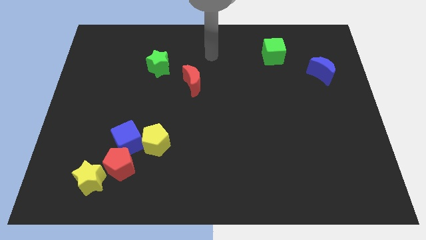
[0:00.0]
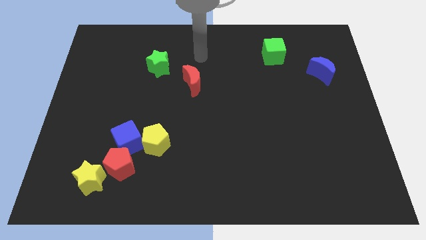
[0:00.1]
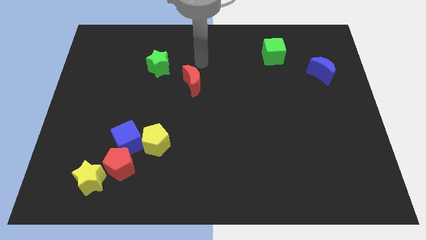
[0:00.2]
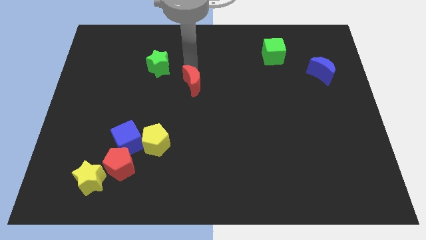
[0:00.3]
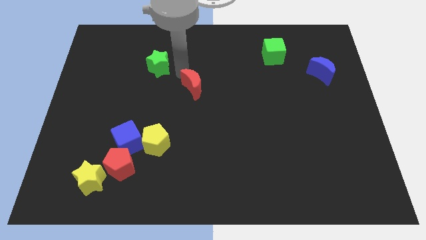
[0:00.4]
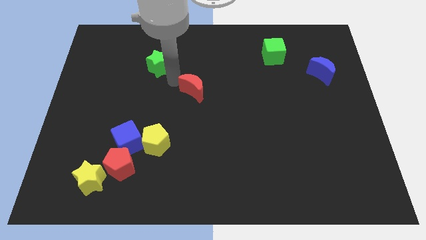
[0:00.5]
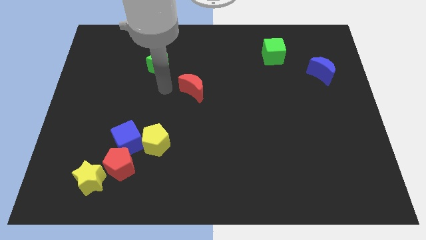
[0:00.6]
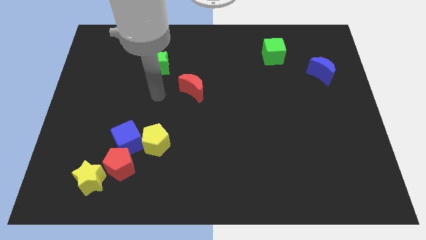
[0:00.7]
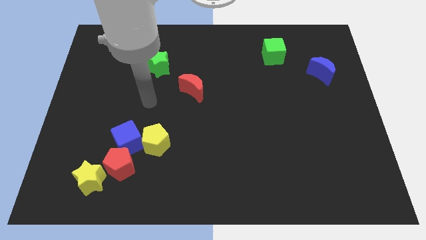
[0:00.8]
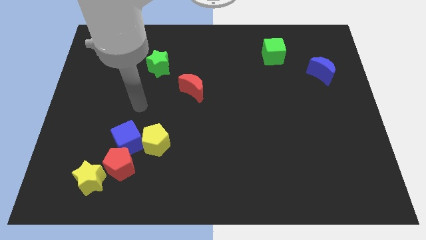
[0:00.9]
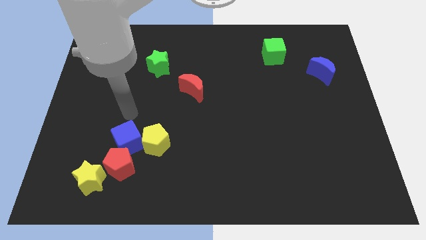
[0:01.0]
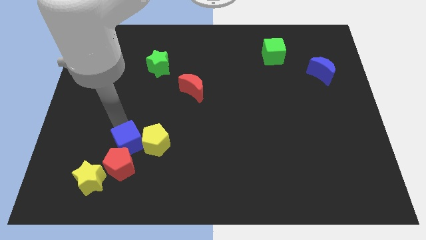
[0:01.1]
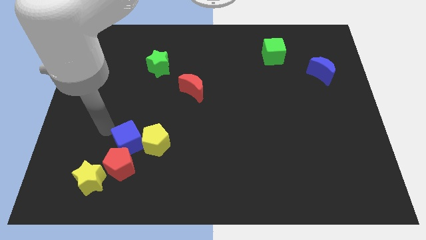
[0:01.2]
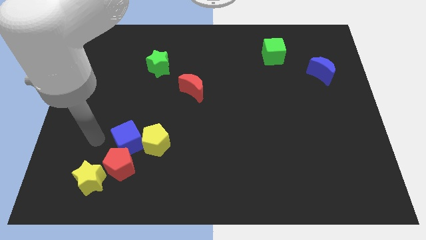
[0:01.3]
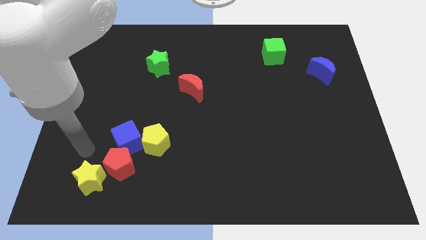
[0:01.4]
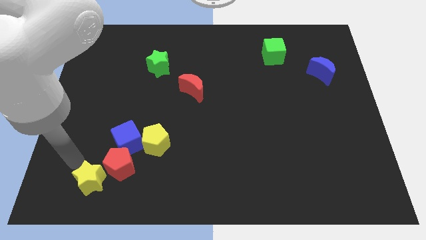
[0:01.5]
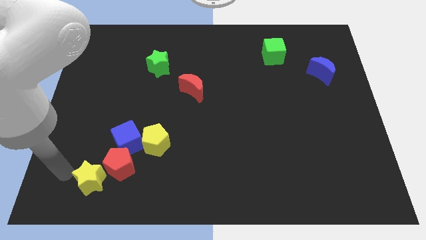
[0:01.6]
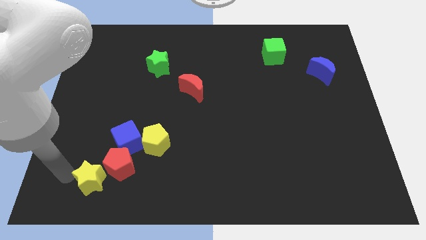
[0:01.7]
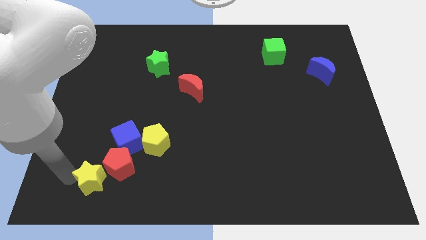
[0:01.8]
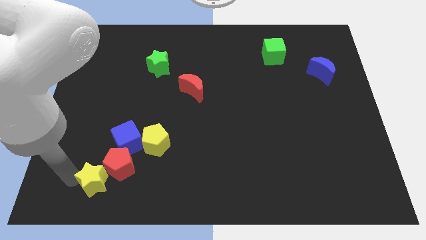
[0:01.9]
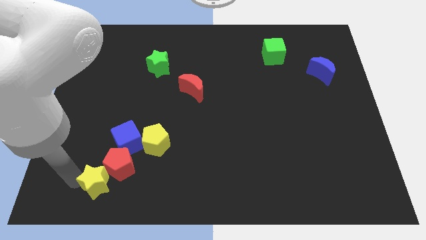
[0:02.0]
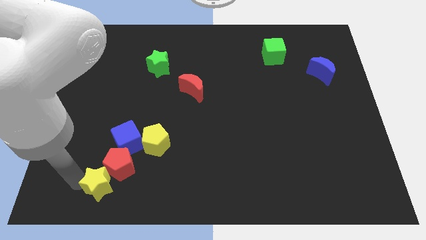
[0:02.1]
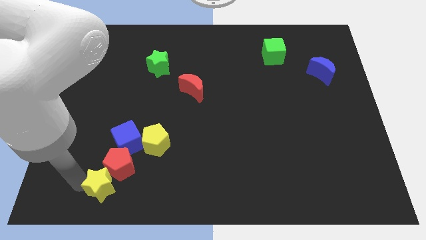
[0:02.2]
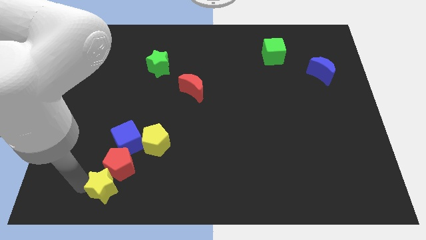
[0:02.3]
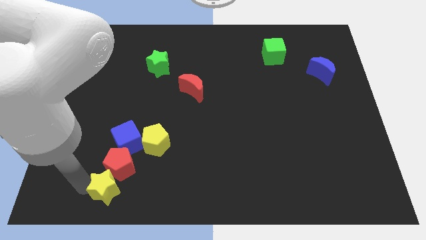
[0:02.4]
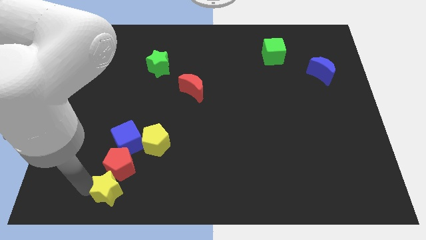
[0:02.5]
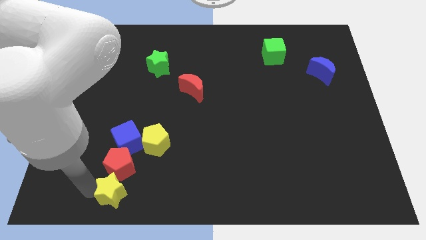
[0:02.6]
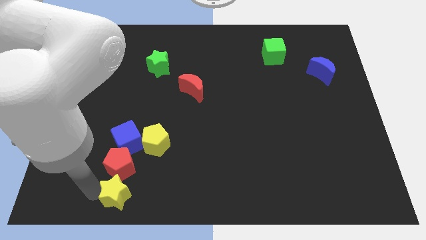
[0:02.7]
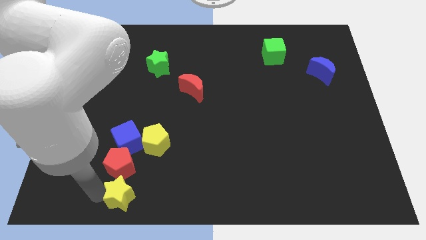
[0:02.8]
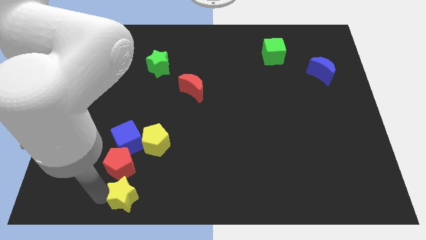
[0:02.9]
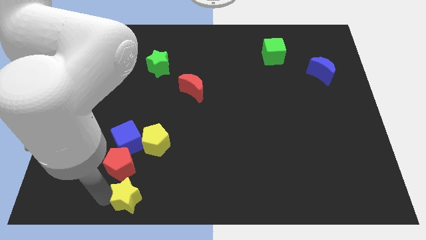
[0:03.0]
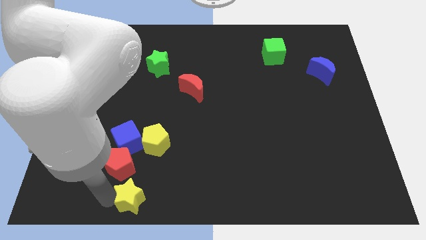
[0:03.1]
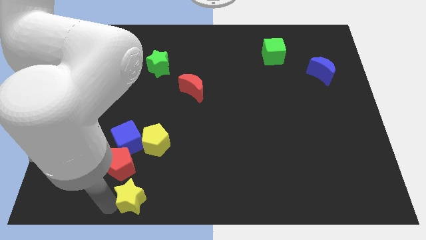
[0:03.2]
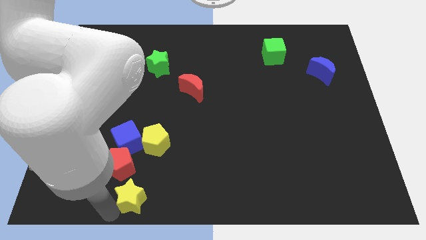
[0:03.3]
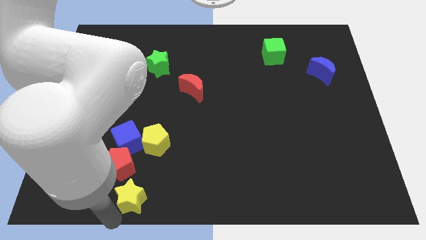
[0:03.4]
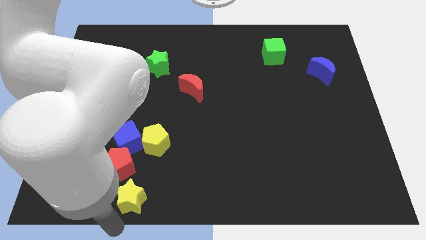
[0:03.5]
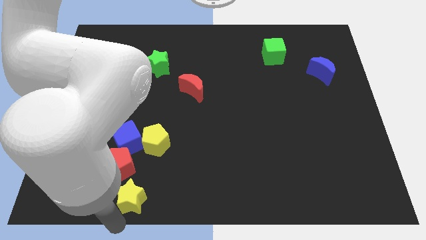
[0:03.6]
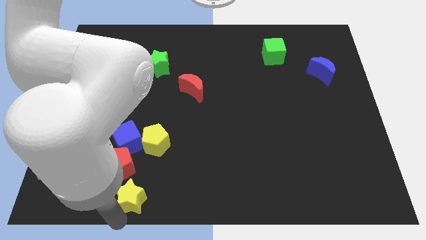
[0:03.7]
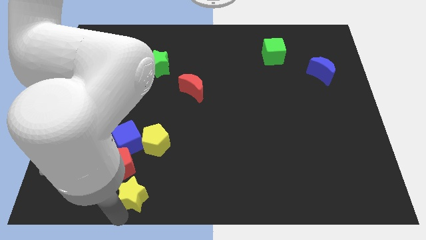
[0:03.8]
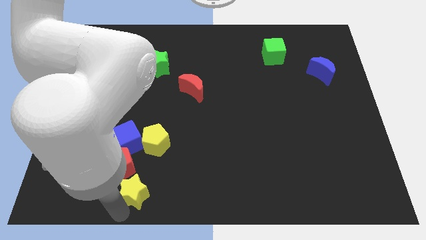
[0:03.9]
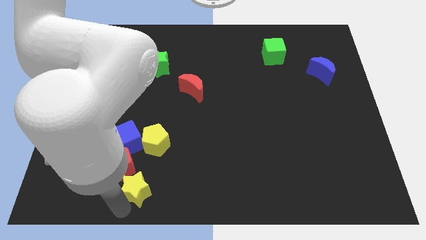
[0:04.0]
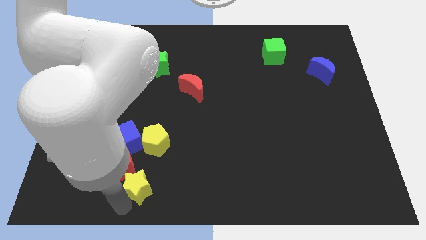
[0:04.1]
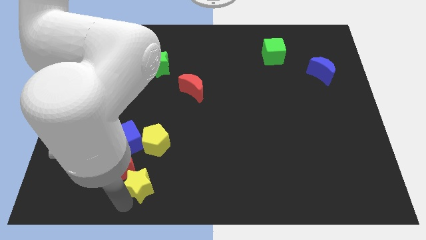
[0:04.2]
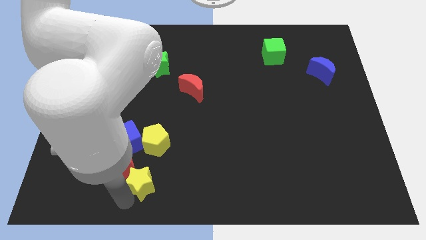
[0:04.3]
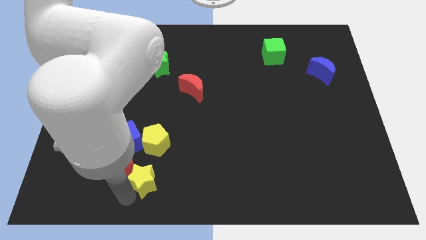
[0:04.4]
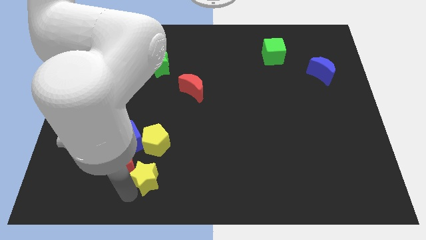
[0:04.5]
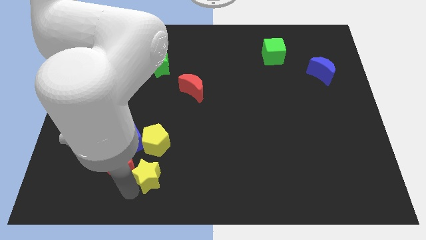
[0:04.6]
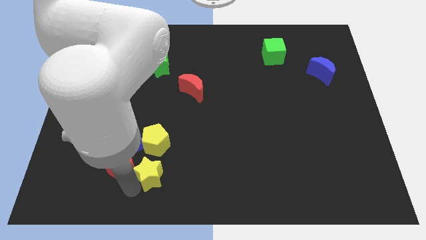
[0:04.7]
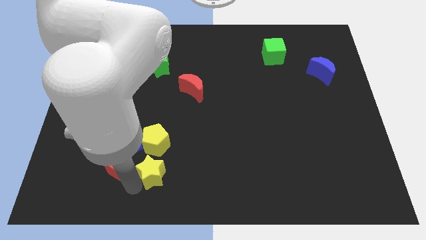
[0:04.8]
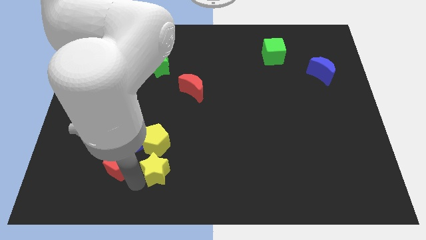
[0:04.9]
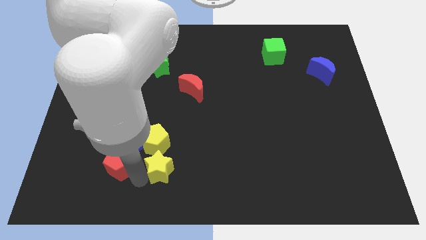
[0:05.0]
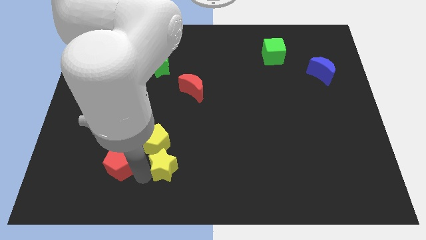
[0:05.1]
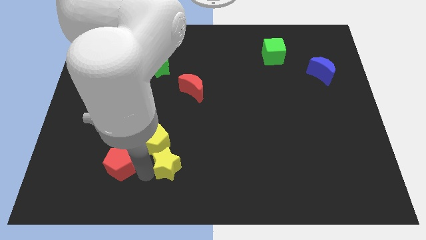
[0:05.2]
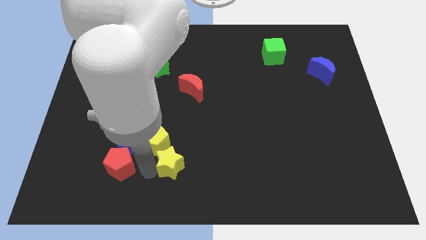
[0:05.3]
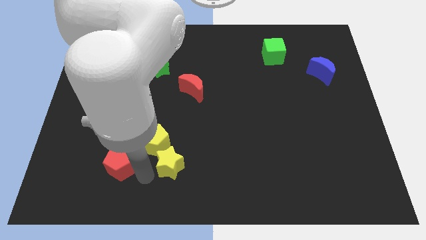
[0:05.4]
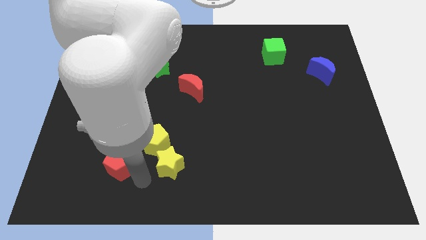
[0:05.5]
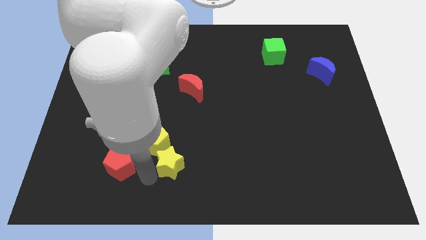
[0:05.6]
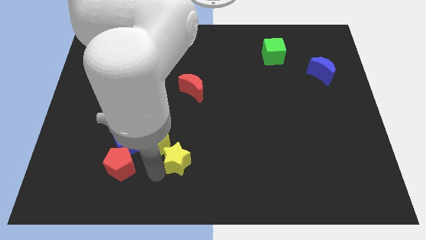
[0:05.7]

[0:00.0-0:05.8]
push the yellow star just right of the yellow pentagon

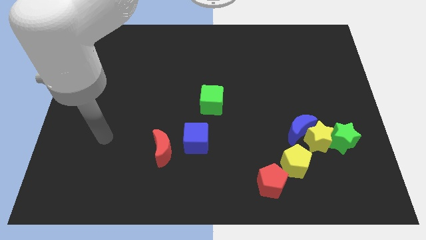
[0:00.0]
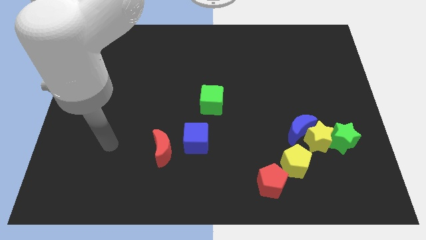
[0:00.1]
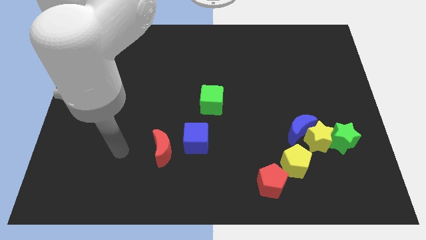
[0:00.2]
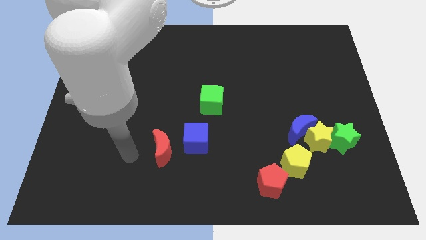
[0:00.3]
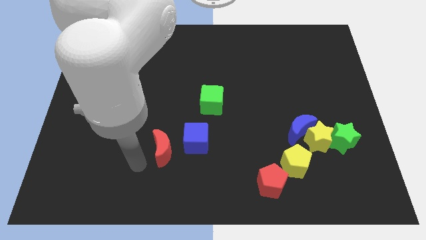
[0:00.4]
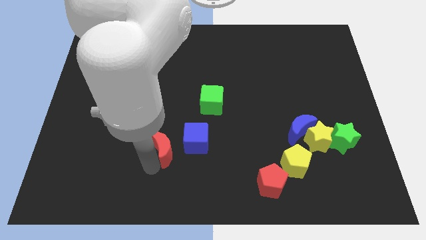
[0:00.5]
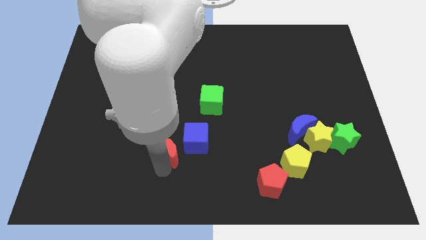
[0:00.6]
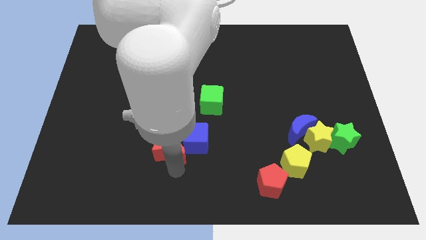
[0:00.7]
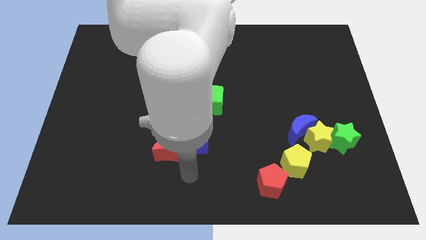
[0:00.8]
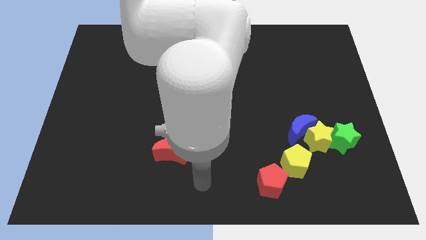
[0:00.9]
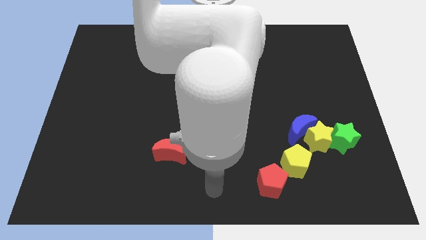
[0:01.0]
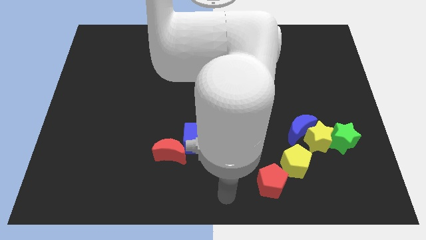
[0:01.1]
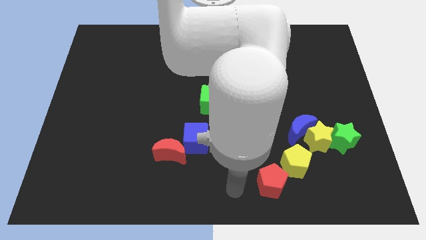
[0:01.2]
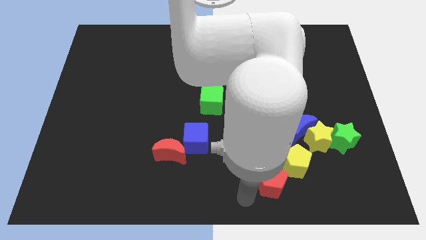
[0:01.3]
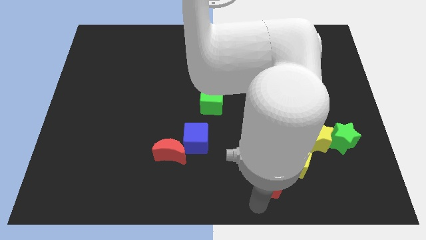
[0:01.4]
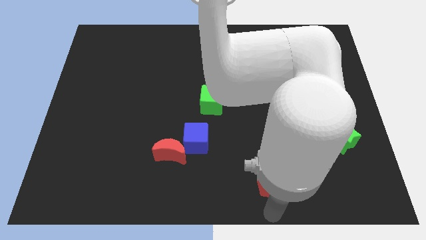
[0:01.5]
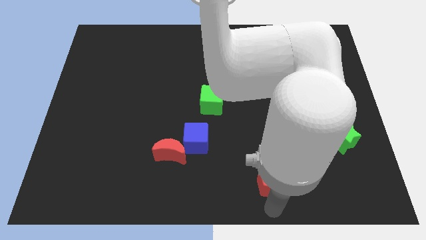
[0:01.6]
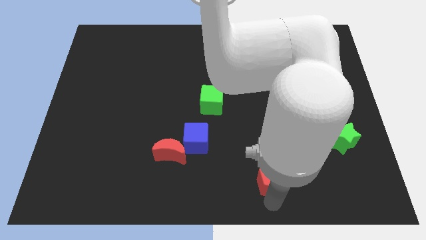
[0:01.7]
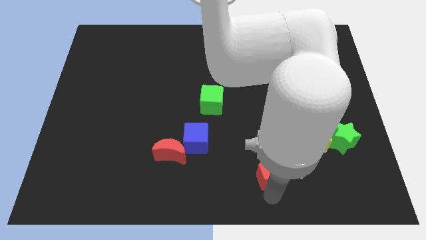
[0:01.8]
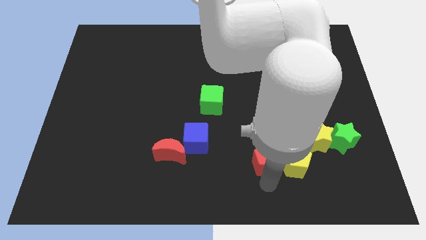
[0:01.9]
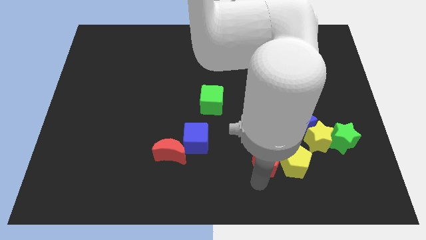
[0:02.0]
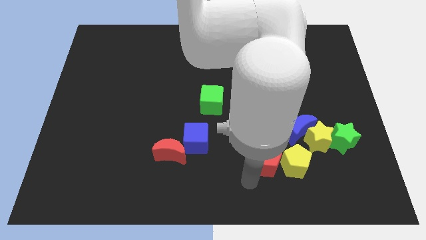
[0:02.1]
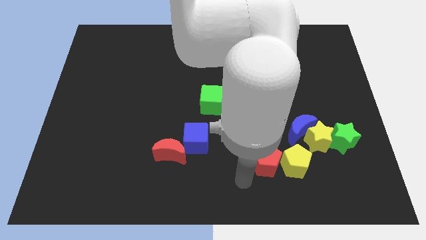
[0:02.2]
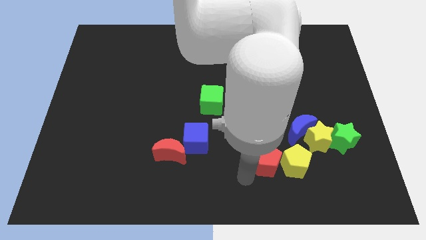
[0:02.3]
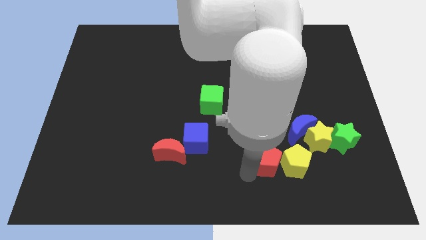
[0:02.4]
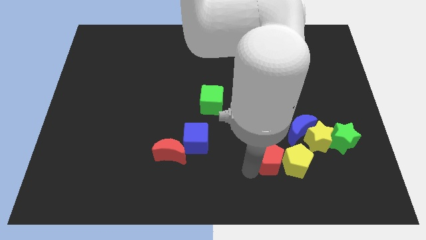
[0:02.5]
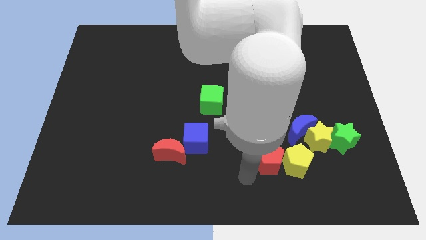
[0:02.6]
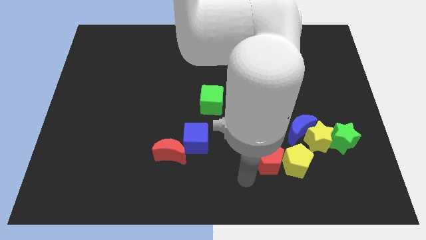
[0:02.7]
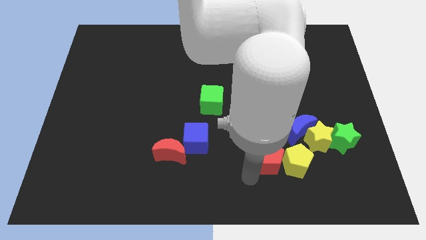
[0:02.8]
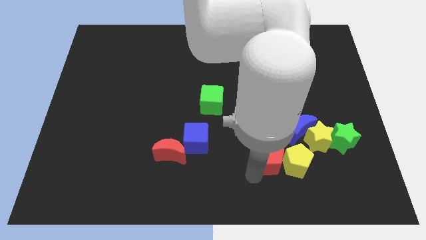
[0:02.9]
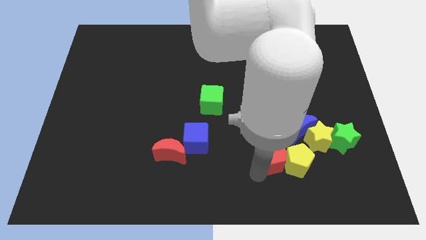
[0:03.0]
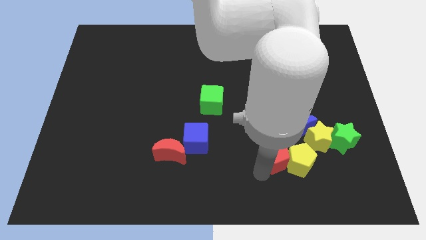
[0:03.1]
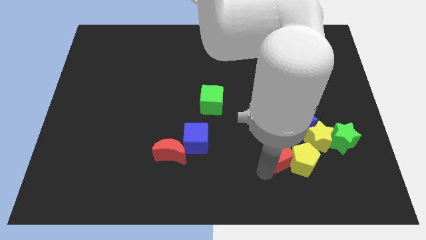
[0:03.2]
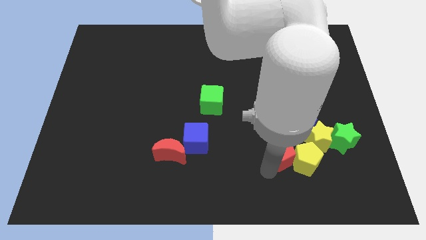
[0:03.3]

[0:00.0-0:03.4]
move the red pentagon just left of the green star
